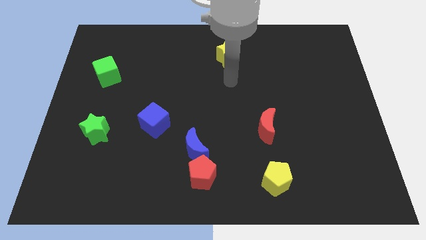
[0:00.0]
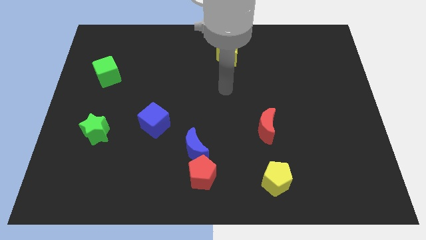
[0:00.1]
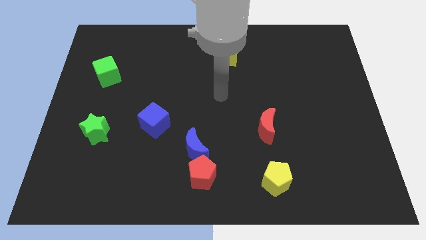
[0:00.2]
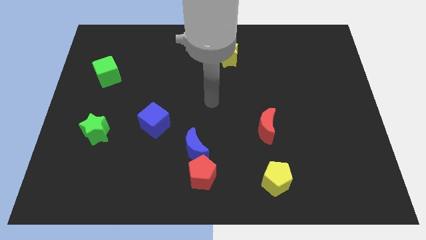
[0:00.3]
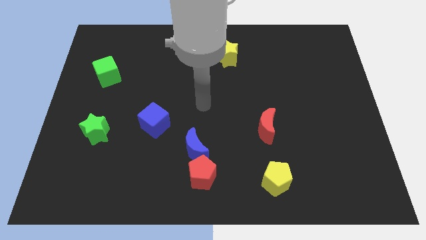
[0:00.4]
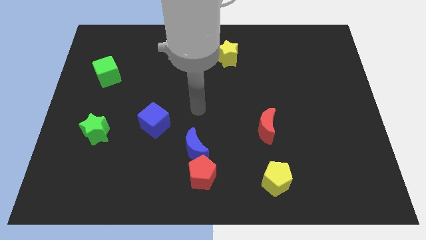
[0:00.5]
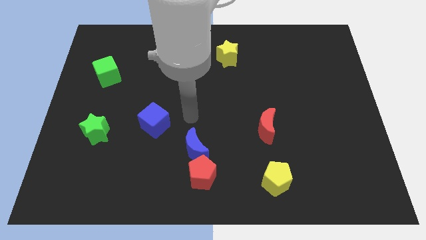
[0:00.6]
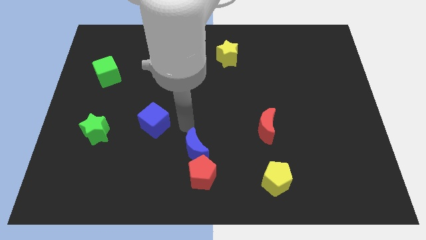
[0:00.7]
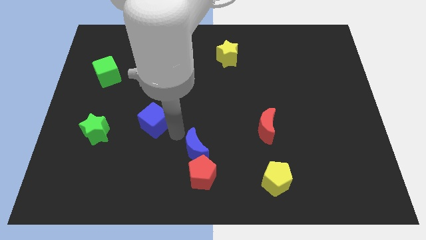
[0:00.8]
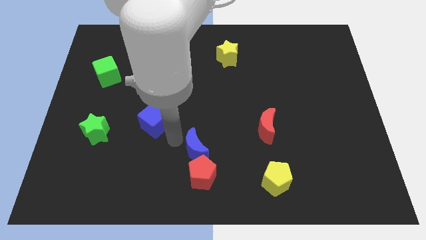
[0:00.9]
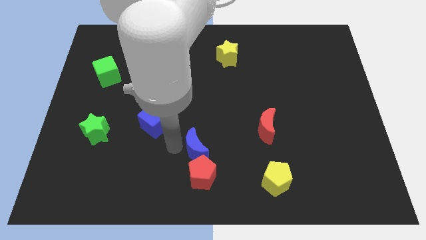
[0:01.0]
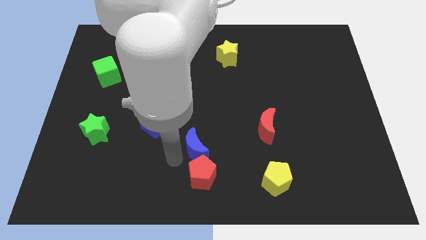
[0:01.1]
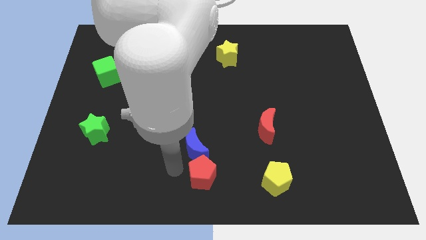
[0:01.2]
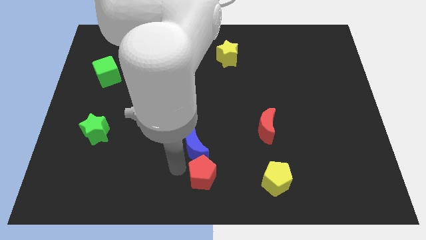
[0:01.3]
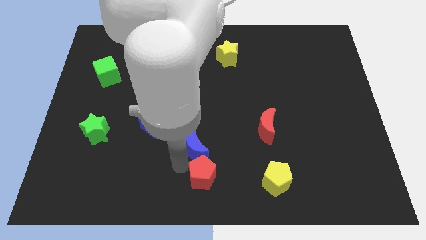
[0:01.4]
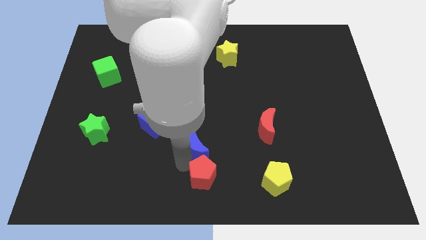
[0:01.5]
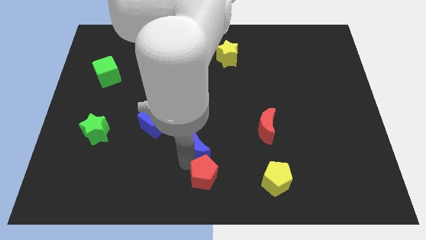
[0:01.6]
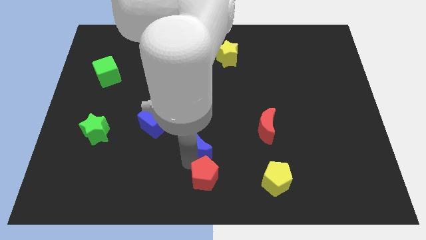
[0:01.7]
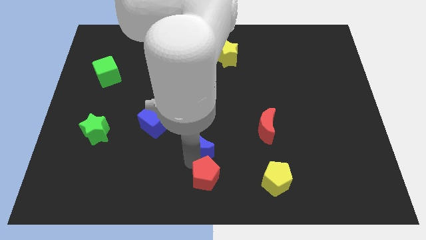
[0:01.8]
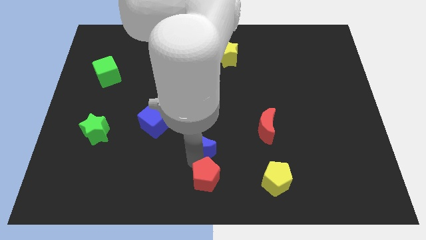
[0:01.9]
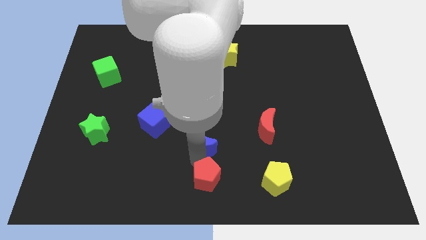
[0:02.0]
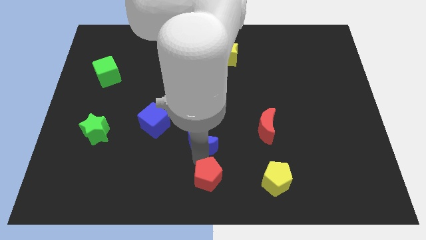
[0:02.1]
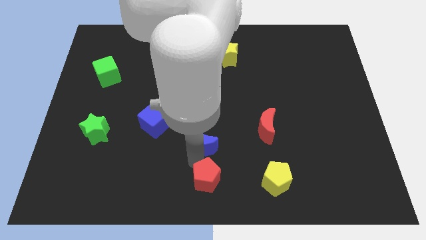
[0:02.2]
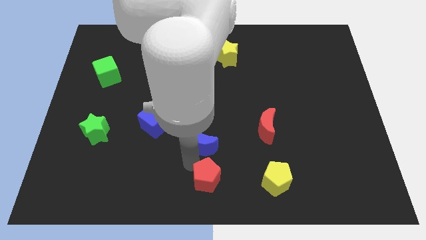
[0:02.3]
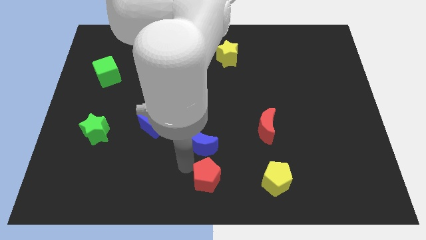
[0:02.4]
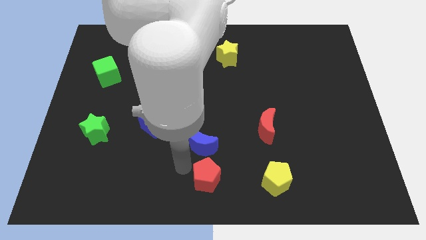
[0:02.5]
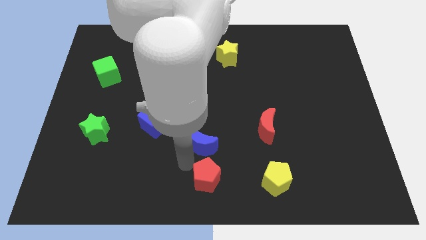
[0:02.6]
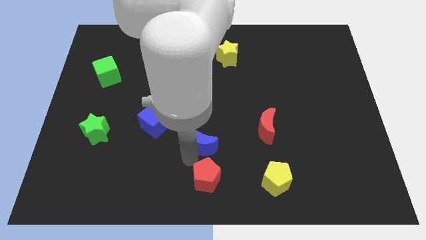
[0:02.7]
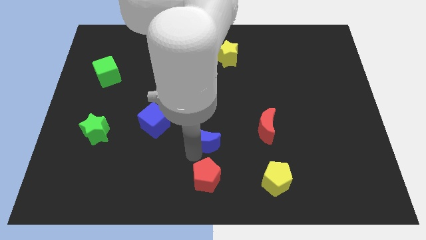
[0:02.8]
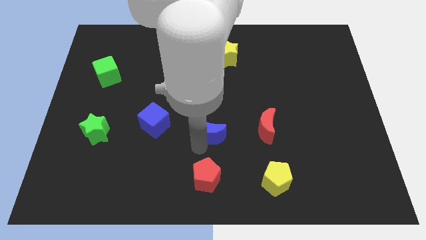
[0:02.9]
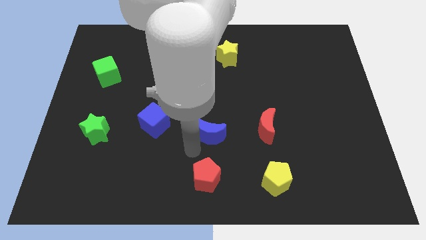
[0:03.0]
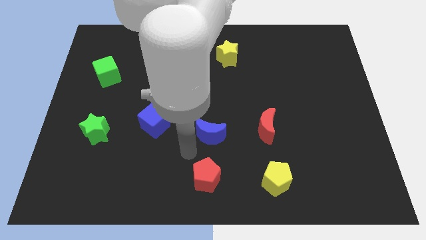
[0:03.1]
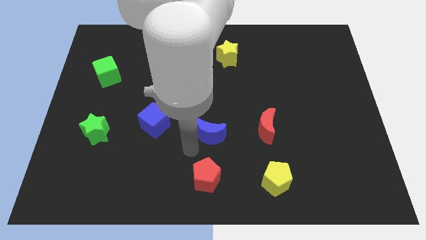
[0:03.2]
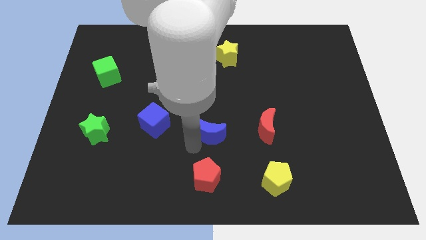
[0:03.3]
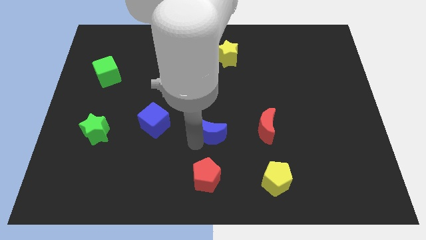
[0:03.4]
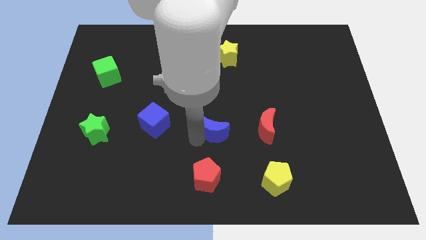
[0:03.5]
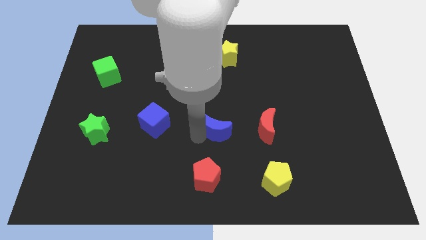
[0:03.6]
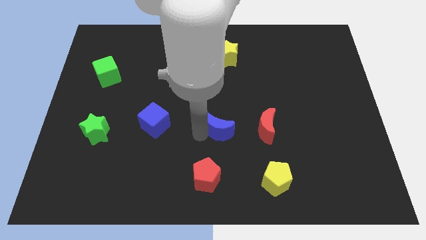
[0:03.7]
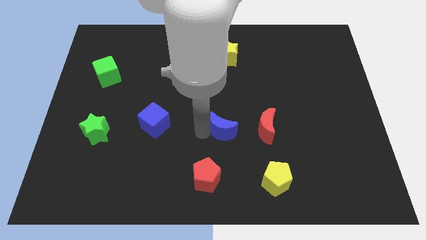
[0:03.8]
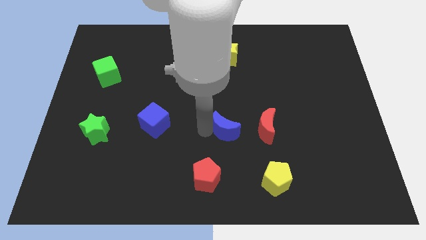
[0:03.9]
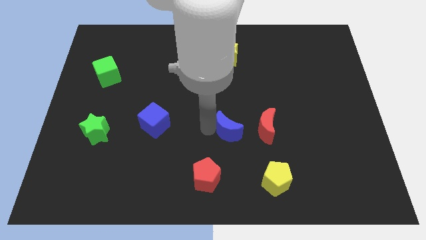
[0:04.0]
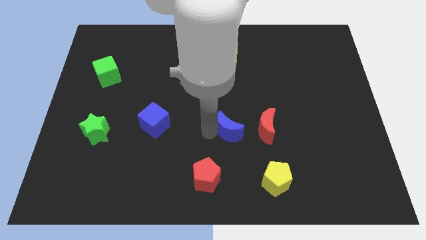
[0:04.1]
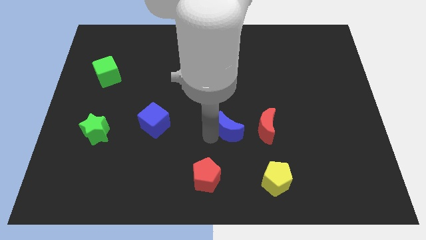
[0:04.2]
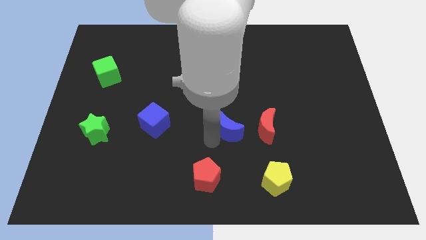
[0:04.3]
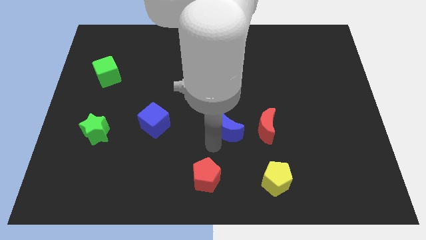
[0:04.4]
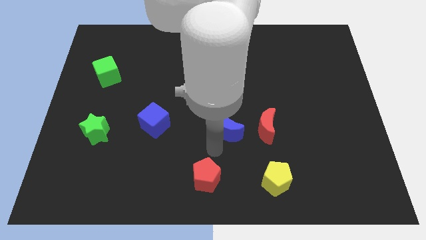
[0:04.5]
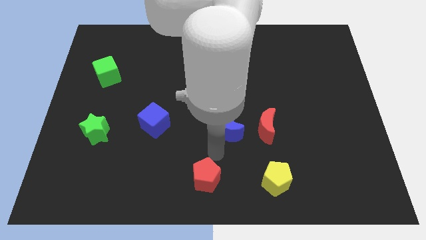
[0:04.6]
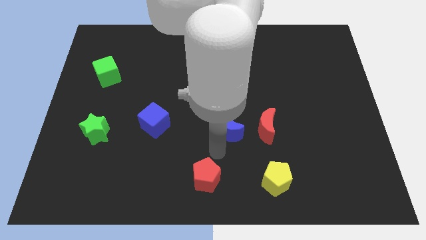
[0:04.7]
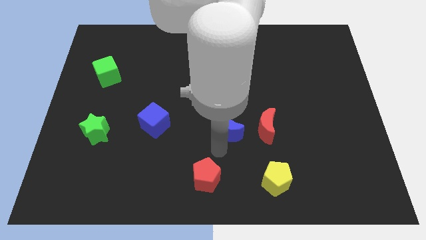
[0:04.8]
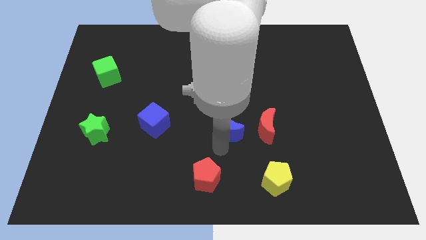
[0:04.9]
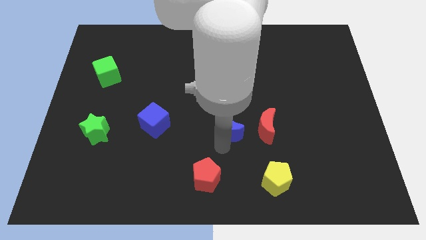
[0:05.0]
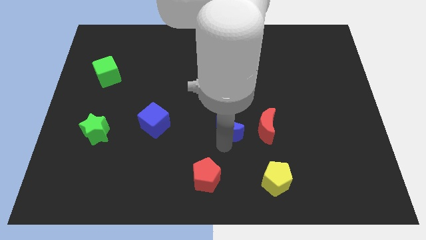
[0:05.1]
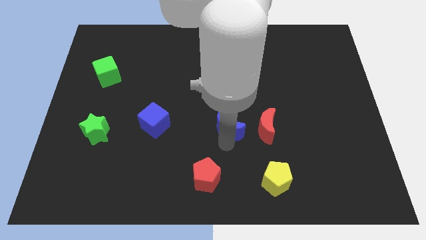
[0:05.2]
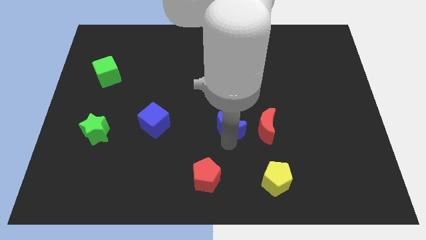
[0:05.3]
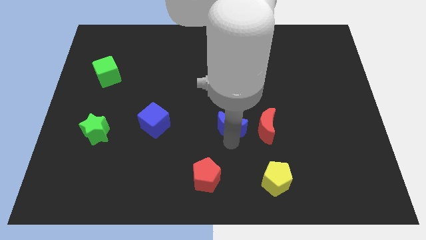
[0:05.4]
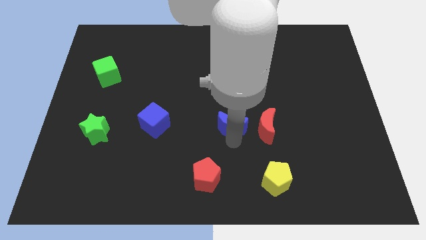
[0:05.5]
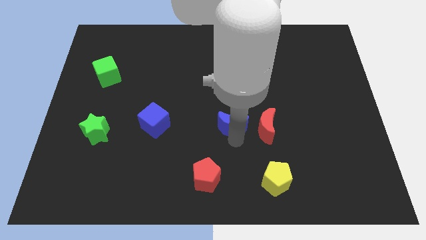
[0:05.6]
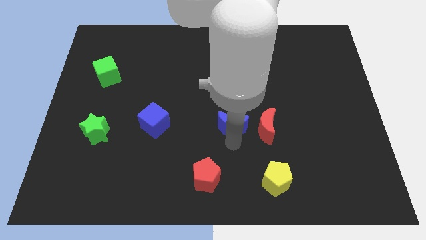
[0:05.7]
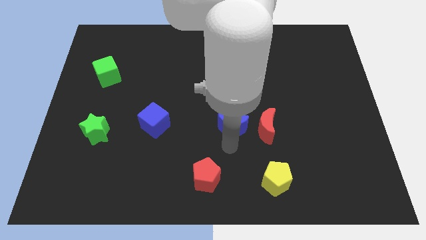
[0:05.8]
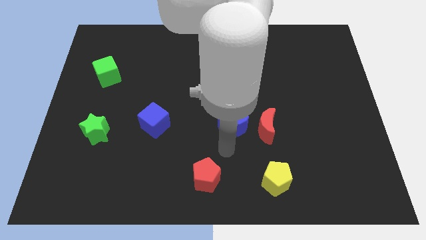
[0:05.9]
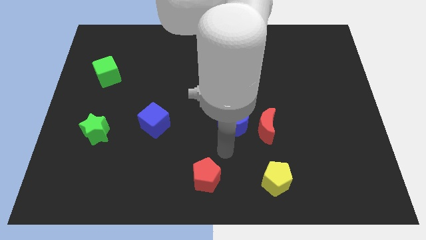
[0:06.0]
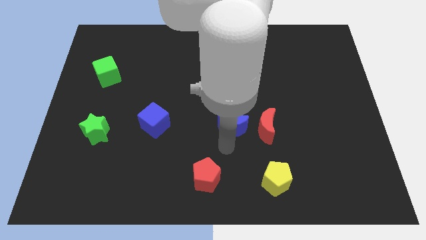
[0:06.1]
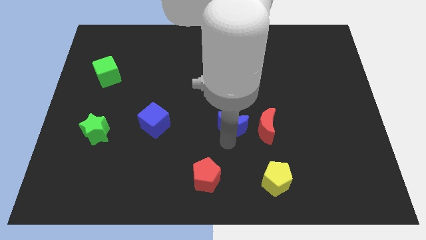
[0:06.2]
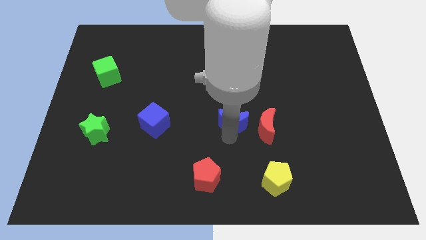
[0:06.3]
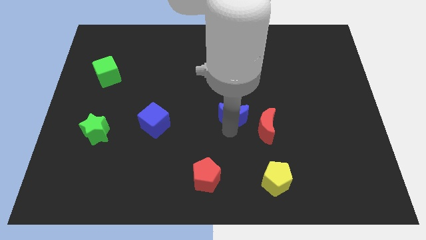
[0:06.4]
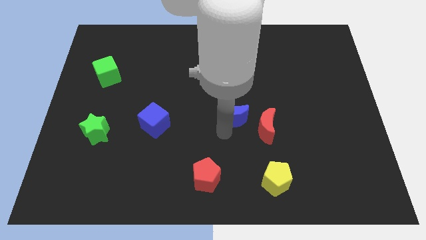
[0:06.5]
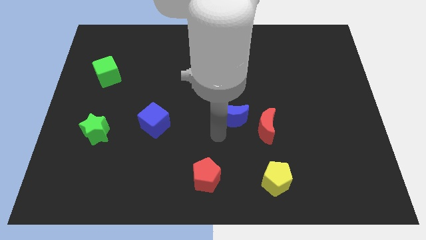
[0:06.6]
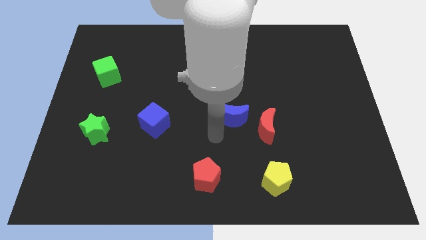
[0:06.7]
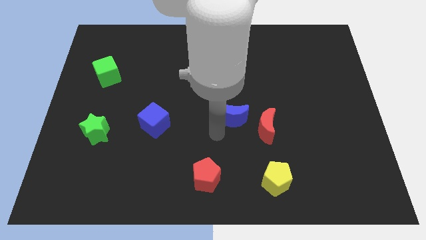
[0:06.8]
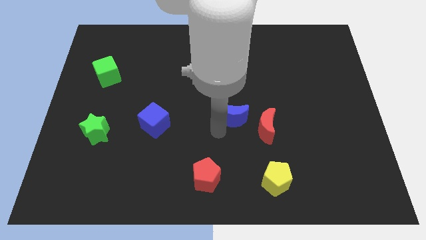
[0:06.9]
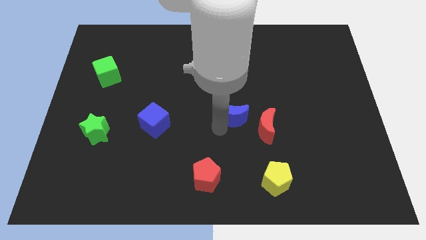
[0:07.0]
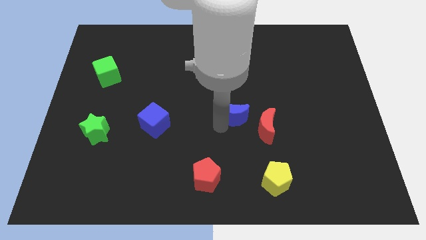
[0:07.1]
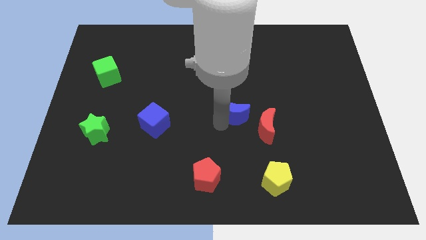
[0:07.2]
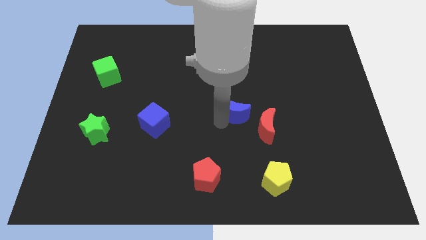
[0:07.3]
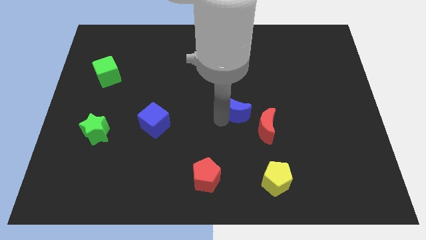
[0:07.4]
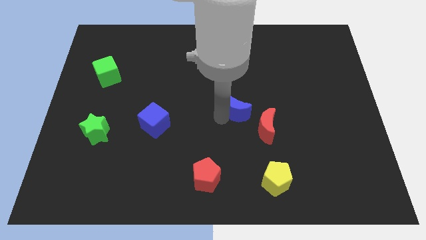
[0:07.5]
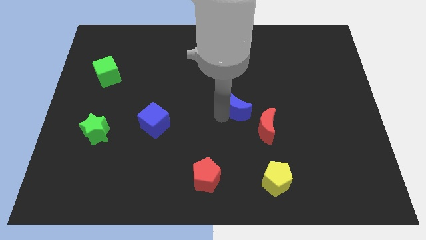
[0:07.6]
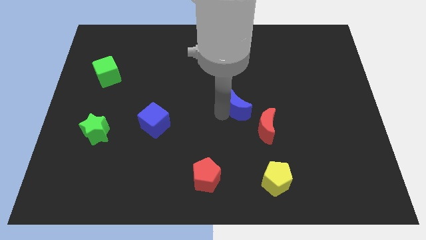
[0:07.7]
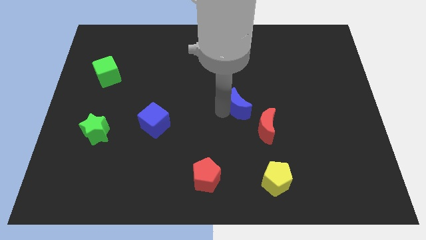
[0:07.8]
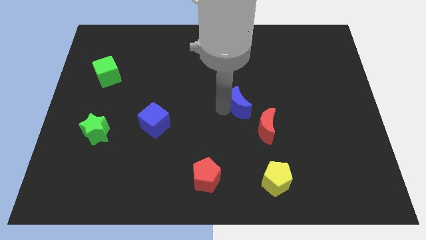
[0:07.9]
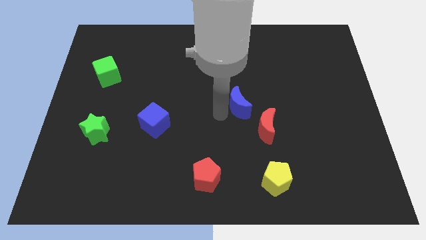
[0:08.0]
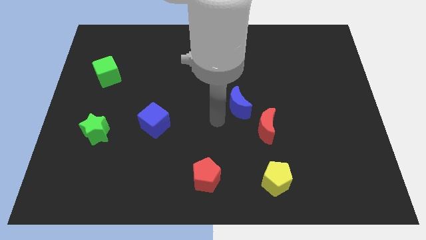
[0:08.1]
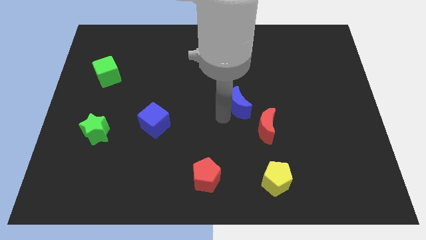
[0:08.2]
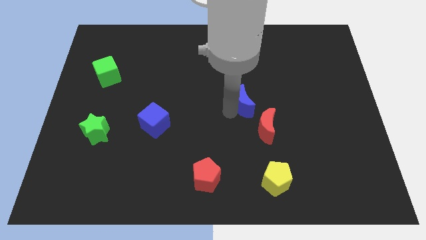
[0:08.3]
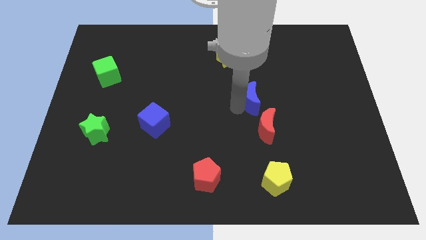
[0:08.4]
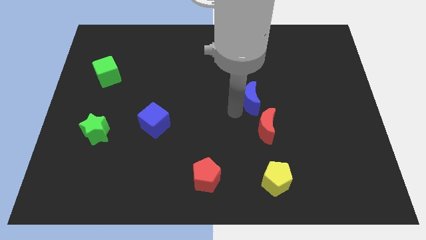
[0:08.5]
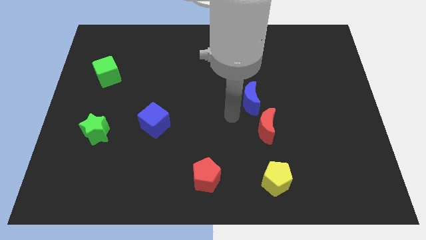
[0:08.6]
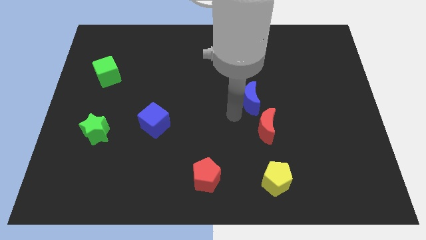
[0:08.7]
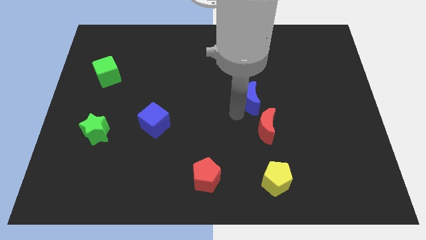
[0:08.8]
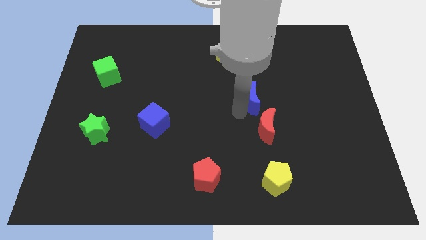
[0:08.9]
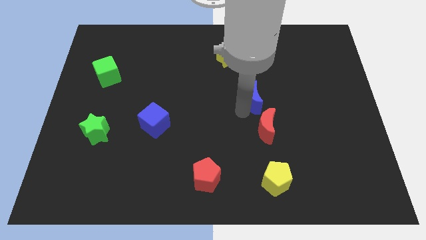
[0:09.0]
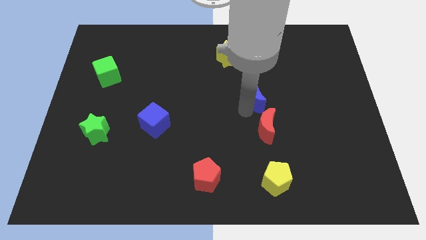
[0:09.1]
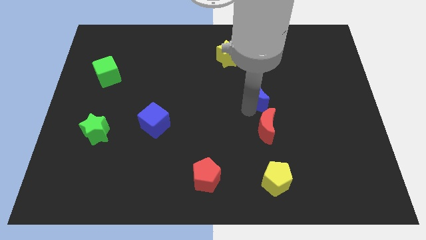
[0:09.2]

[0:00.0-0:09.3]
move the blue moon upwards and to the right diagonally
